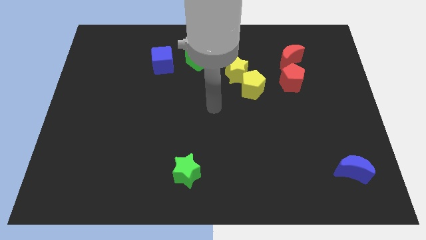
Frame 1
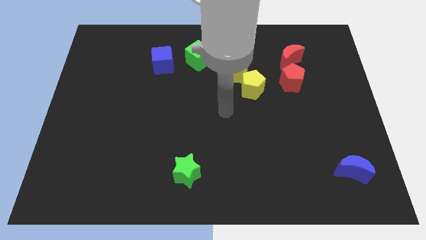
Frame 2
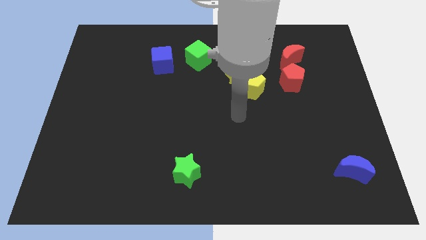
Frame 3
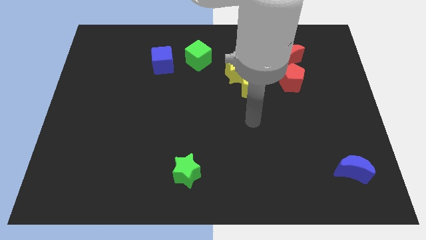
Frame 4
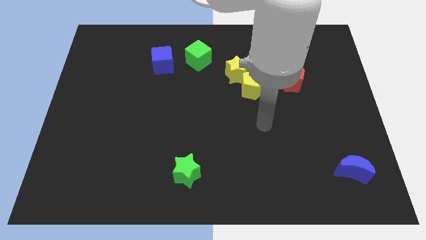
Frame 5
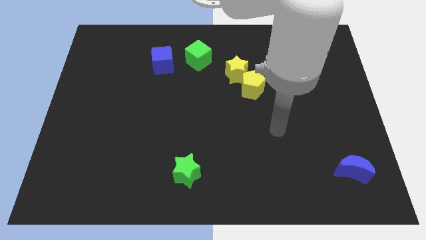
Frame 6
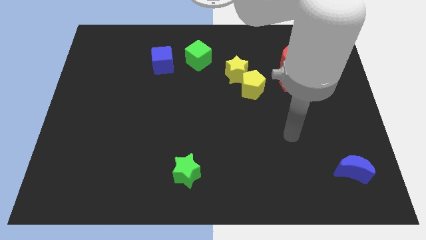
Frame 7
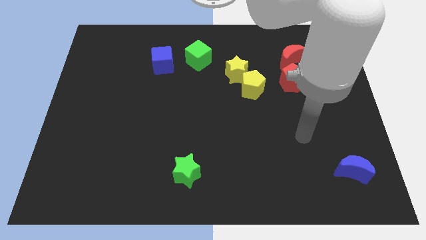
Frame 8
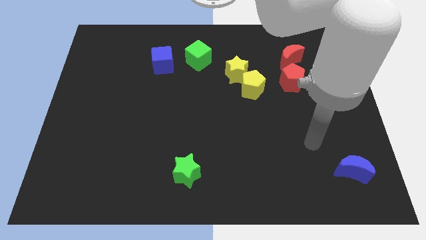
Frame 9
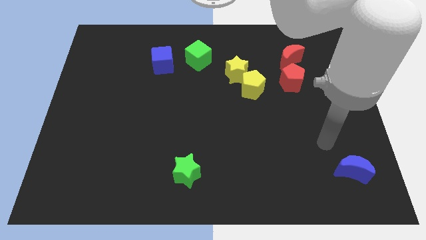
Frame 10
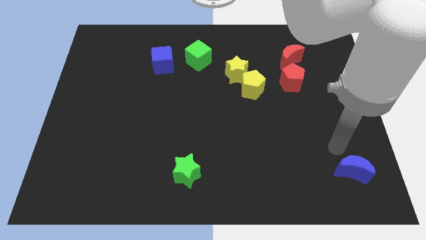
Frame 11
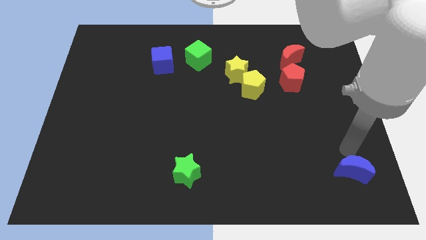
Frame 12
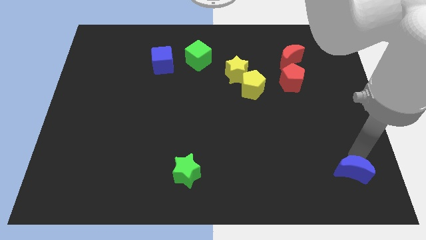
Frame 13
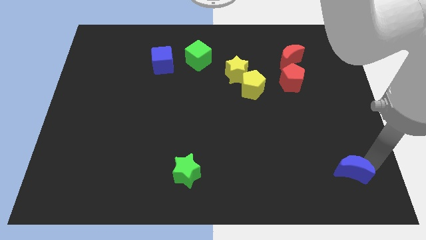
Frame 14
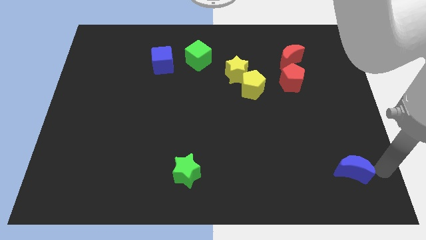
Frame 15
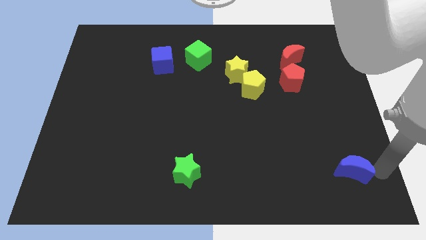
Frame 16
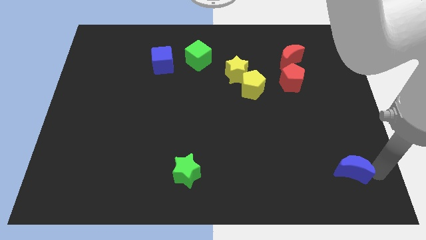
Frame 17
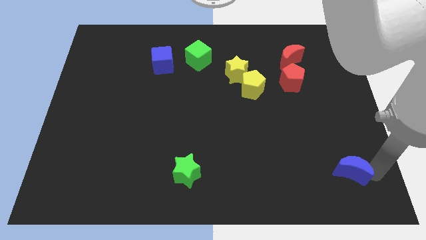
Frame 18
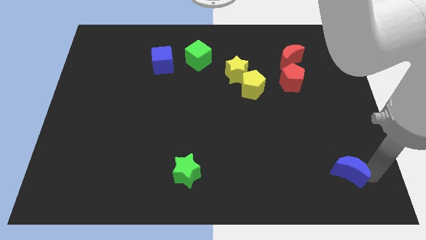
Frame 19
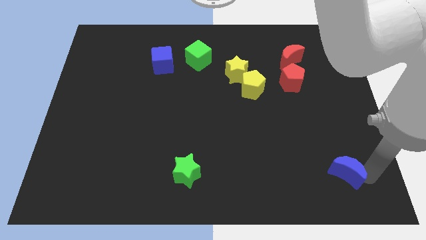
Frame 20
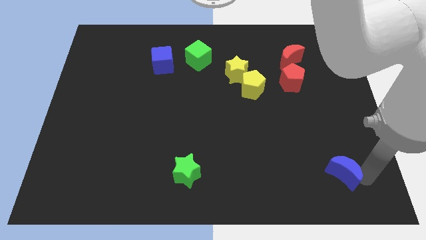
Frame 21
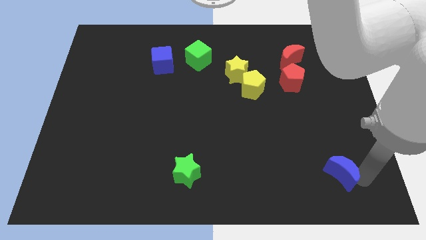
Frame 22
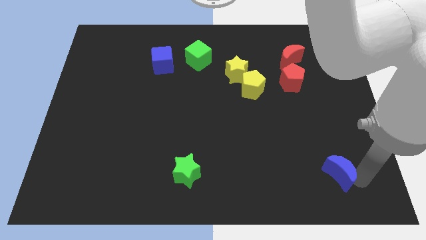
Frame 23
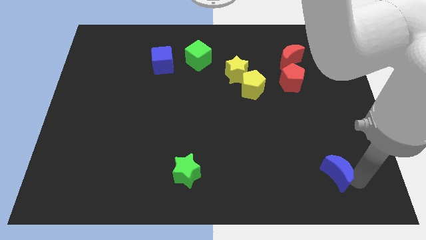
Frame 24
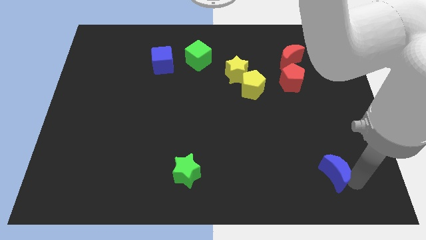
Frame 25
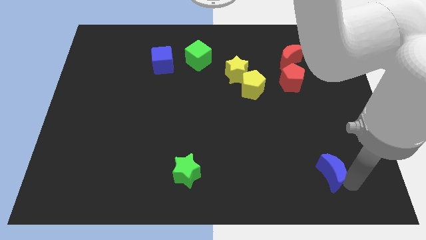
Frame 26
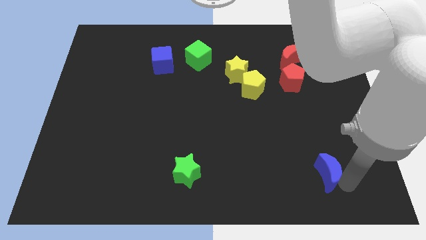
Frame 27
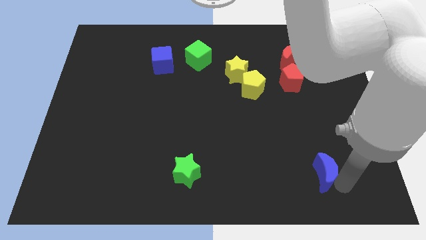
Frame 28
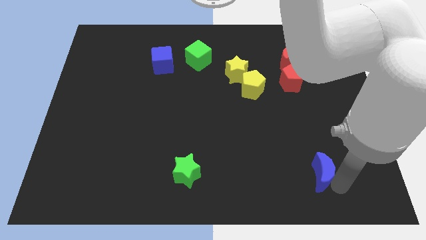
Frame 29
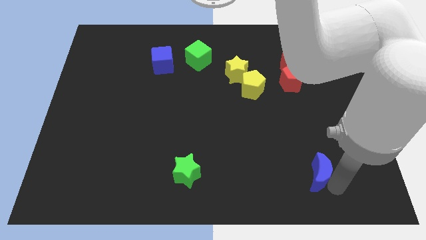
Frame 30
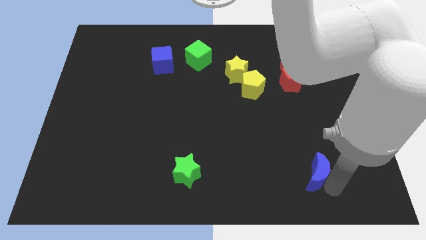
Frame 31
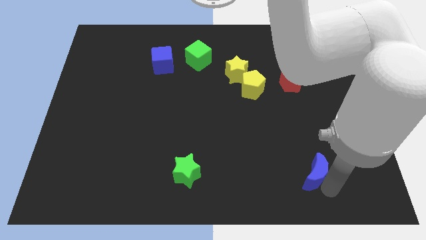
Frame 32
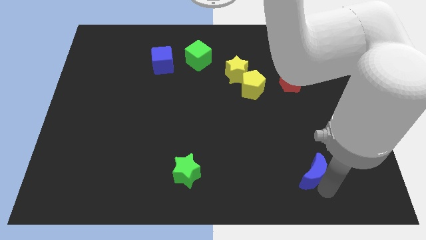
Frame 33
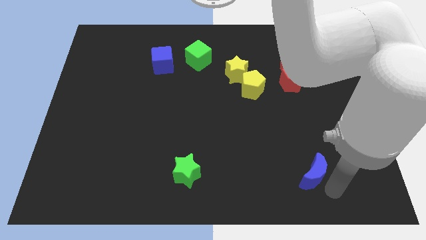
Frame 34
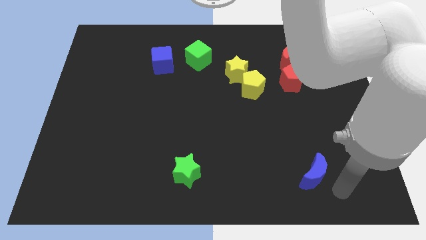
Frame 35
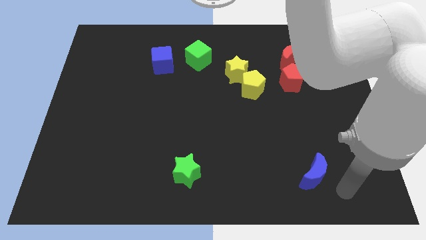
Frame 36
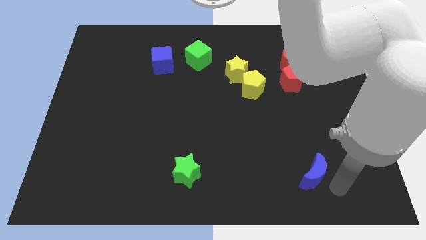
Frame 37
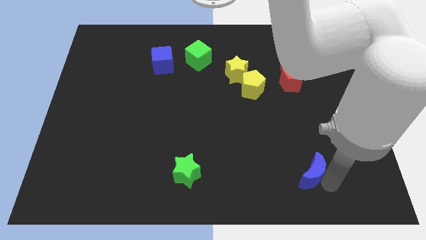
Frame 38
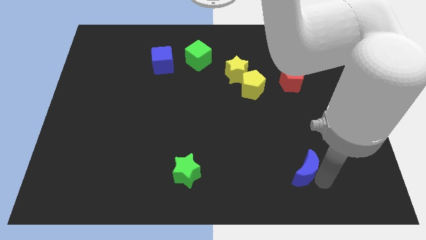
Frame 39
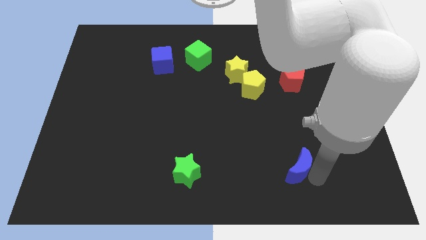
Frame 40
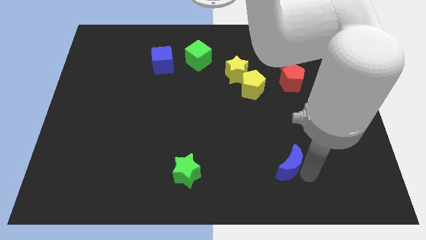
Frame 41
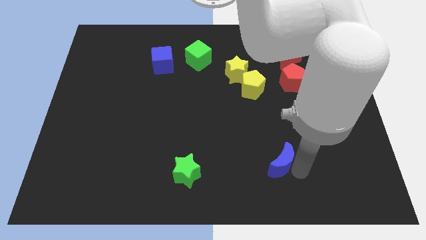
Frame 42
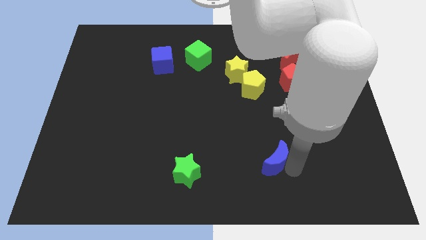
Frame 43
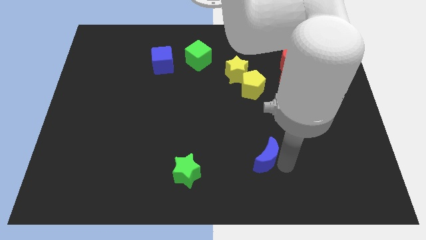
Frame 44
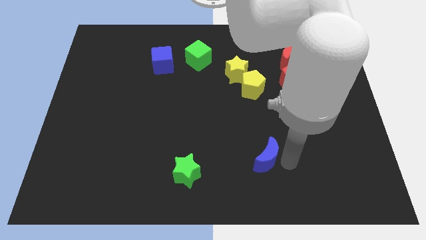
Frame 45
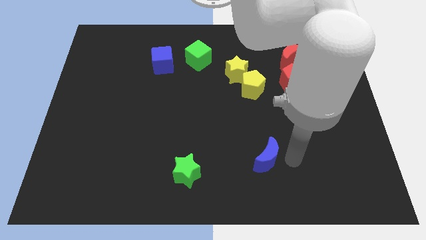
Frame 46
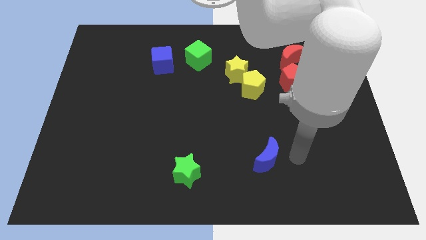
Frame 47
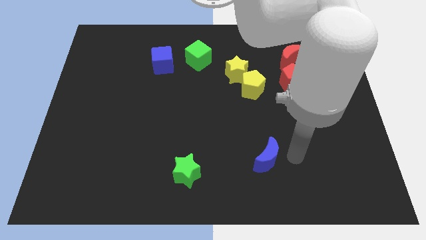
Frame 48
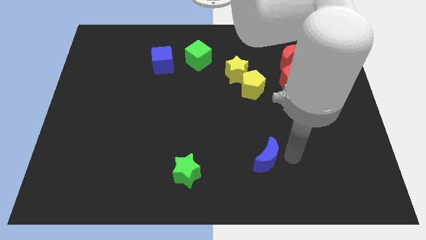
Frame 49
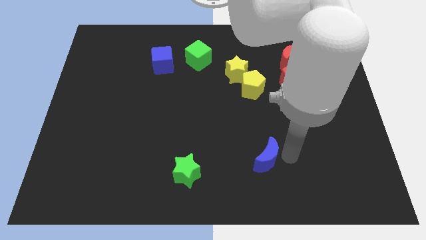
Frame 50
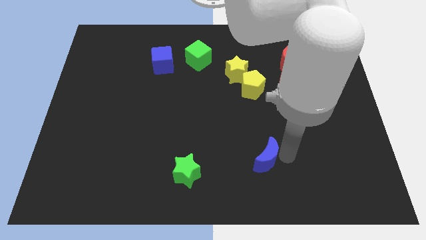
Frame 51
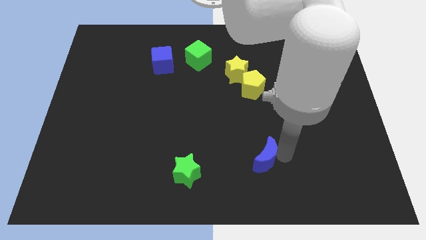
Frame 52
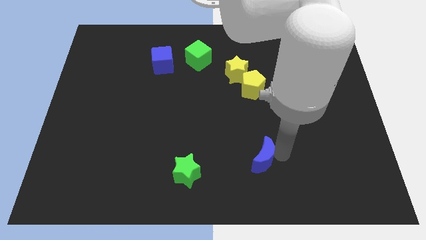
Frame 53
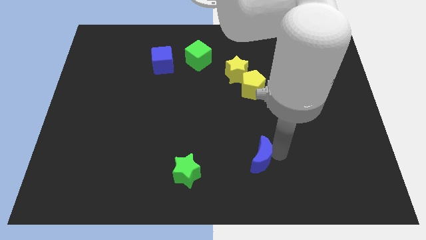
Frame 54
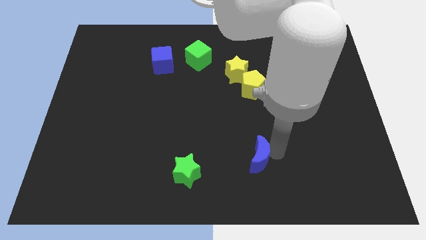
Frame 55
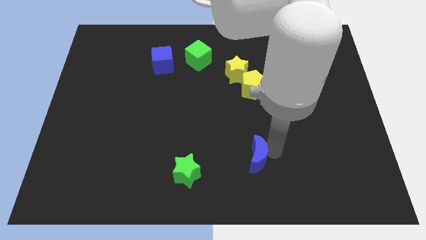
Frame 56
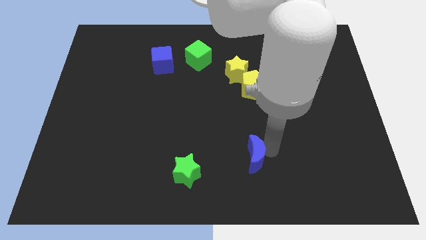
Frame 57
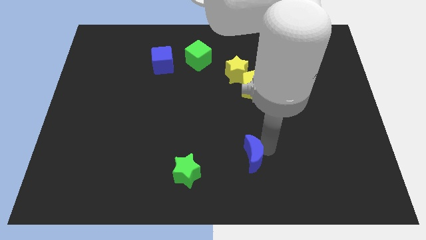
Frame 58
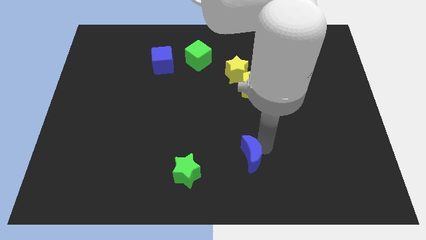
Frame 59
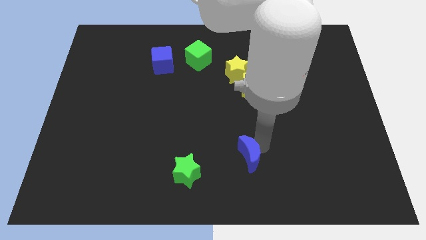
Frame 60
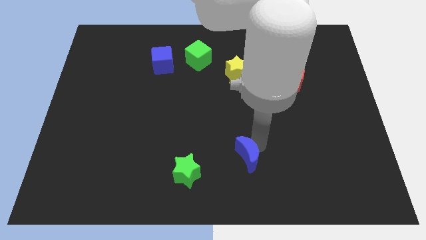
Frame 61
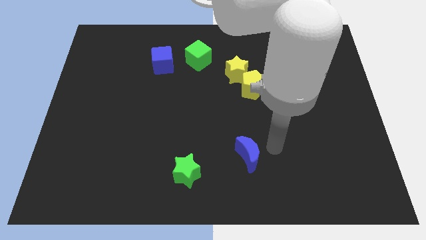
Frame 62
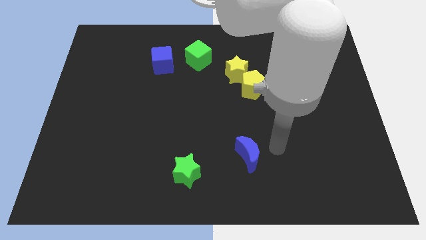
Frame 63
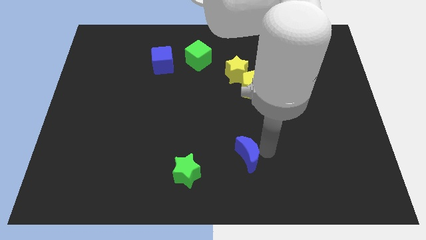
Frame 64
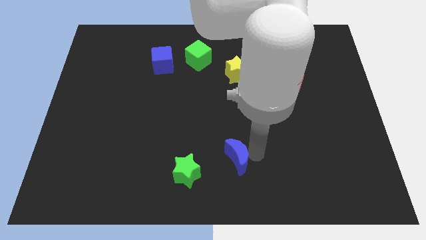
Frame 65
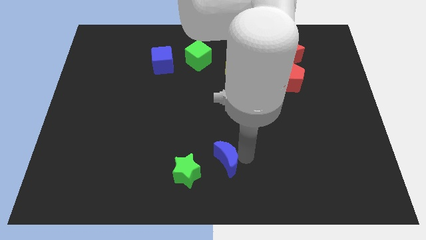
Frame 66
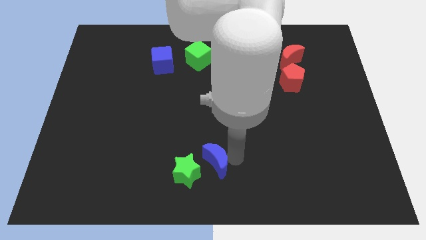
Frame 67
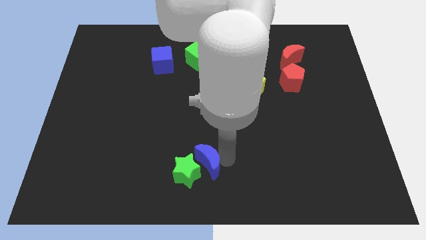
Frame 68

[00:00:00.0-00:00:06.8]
move the blue moon next to the green star

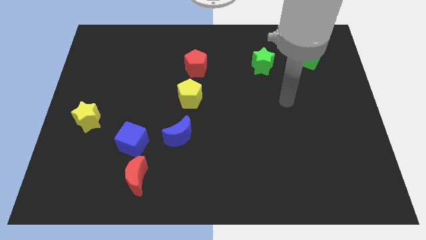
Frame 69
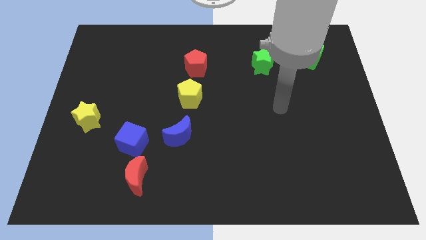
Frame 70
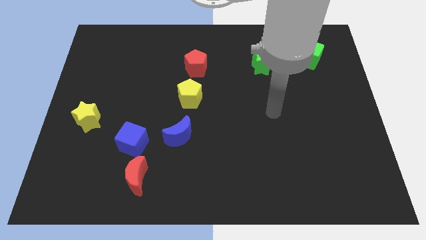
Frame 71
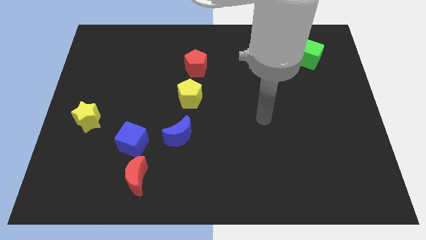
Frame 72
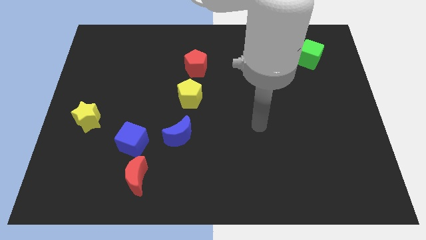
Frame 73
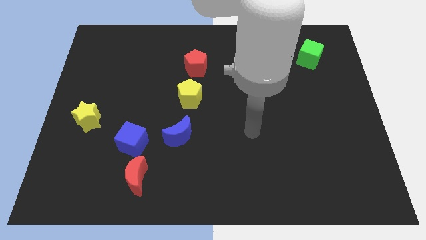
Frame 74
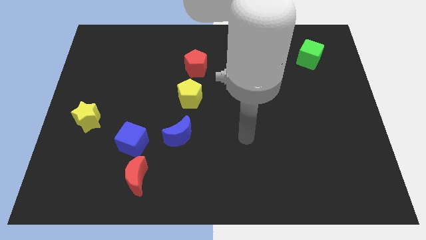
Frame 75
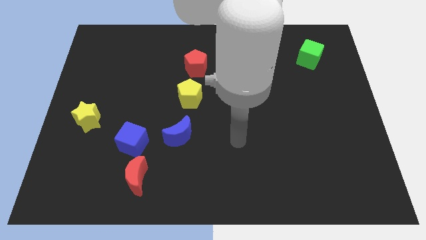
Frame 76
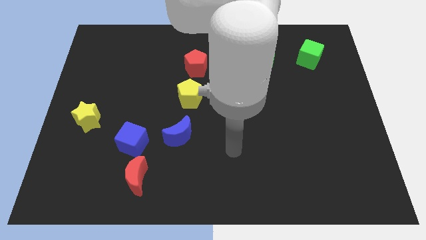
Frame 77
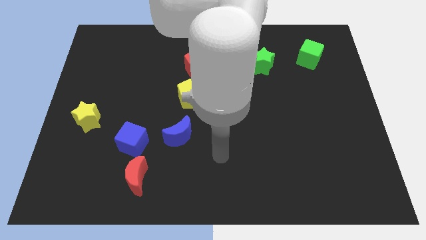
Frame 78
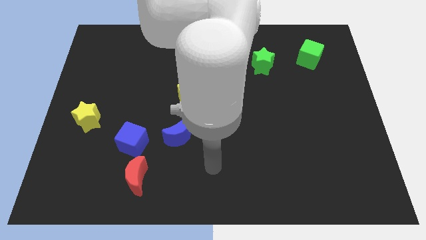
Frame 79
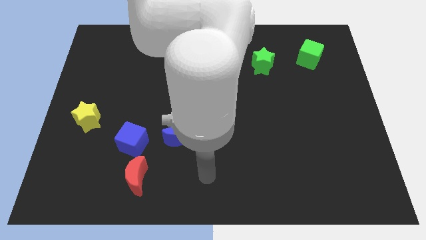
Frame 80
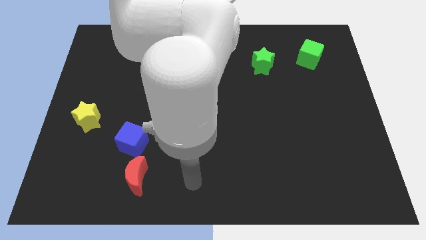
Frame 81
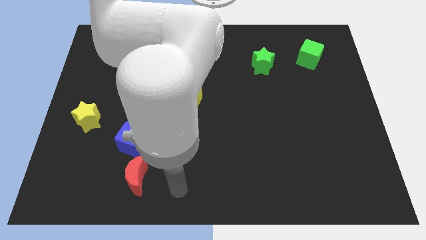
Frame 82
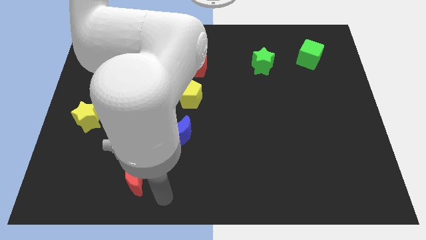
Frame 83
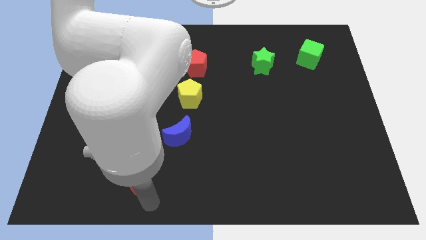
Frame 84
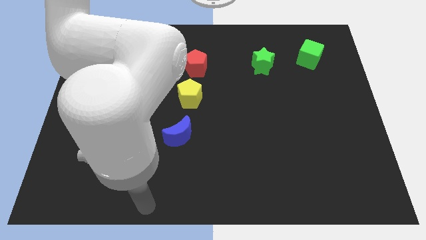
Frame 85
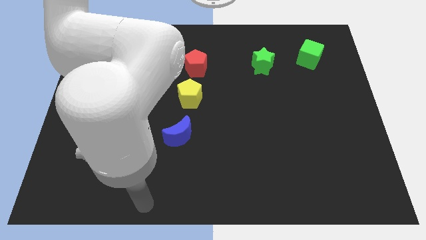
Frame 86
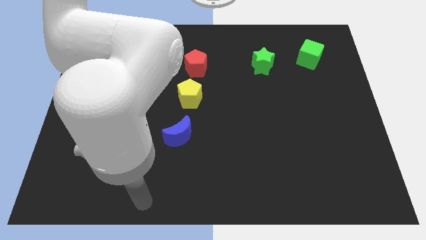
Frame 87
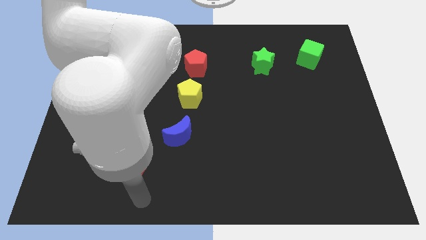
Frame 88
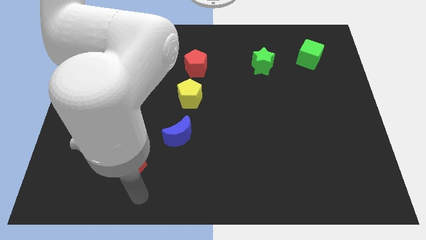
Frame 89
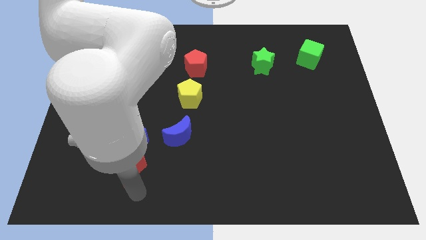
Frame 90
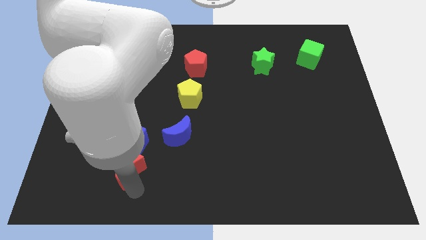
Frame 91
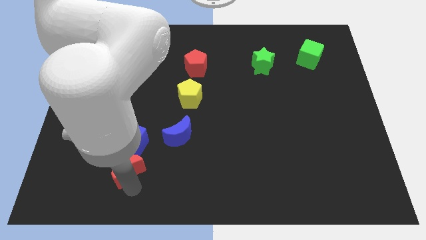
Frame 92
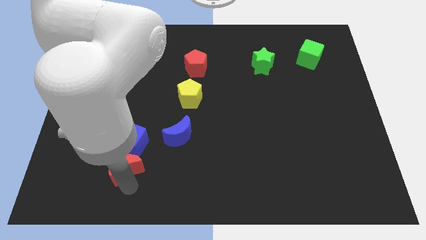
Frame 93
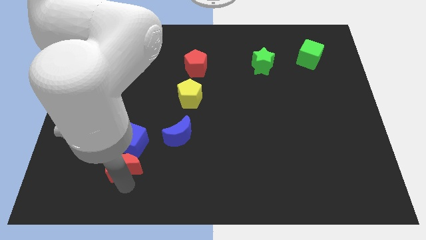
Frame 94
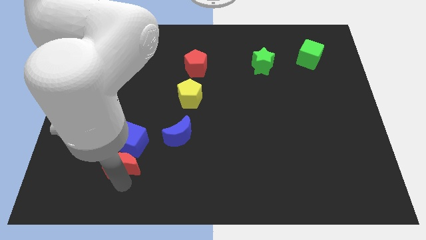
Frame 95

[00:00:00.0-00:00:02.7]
put the red moon close to the blue cube
